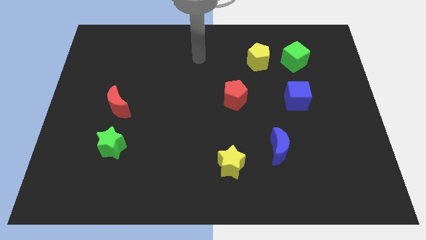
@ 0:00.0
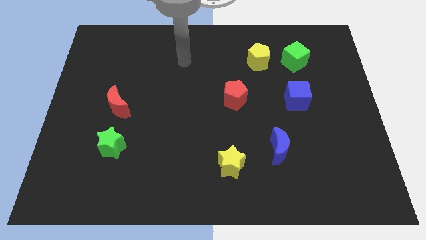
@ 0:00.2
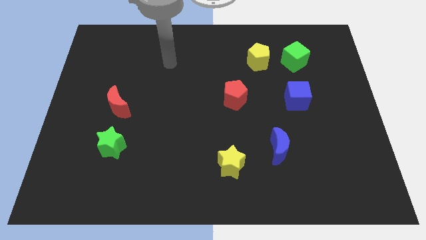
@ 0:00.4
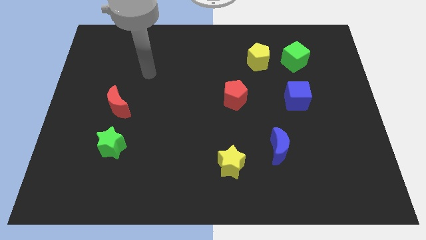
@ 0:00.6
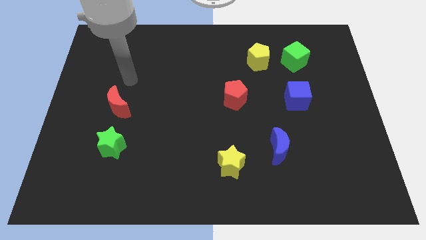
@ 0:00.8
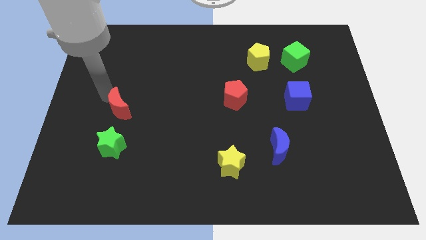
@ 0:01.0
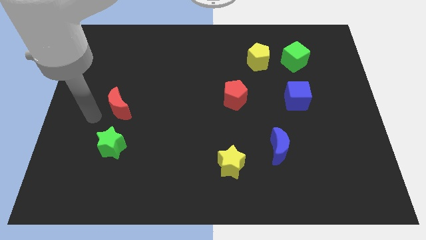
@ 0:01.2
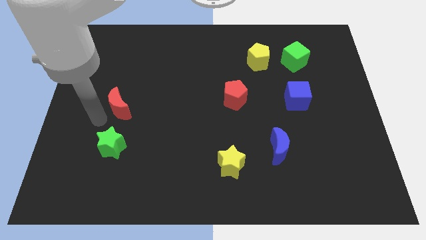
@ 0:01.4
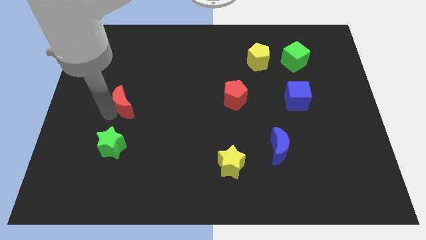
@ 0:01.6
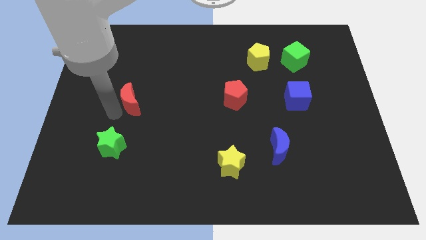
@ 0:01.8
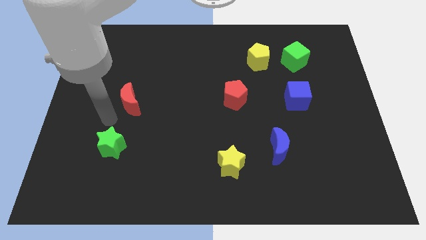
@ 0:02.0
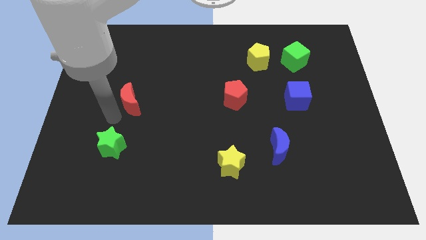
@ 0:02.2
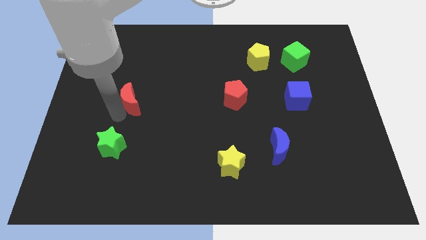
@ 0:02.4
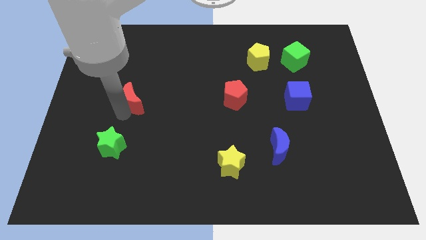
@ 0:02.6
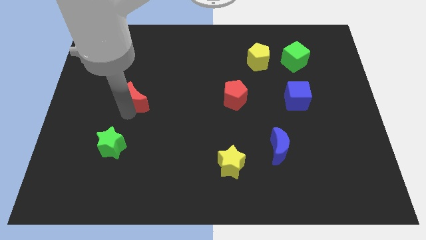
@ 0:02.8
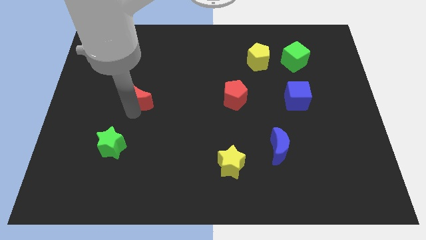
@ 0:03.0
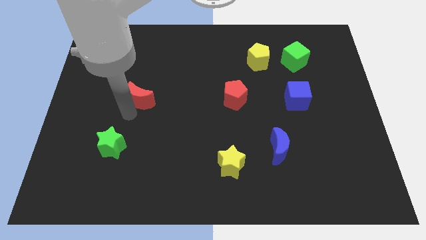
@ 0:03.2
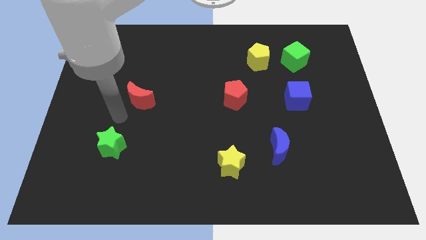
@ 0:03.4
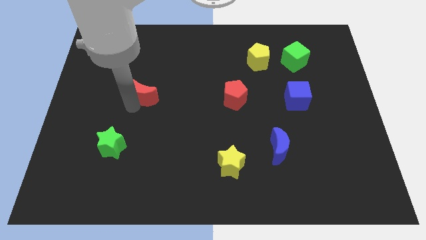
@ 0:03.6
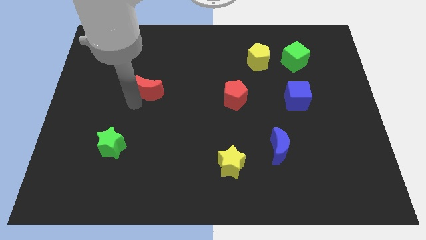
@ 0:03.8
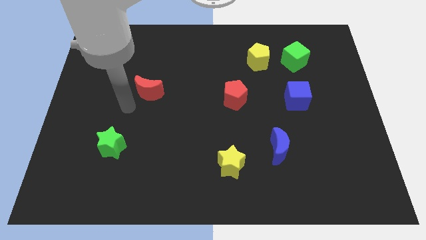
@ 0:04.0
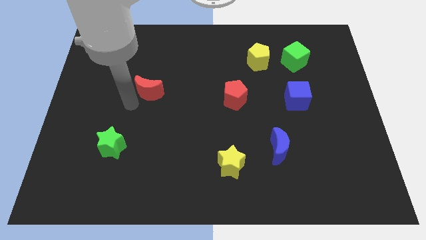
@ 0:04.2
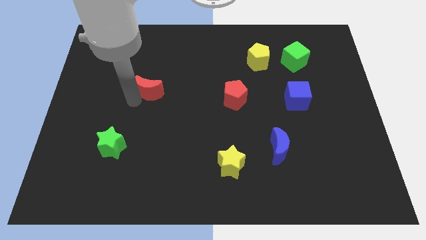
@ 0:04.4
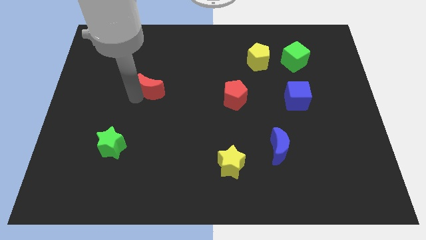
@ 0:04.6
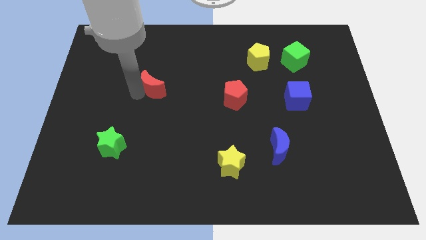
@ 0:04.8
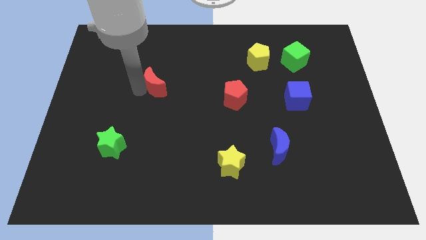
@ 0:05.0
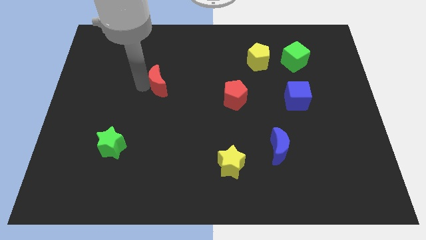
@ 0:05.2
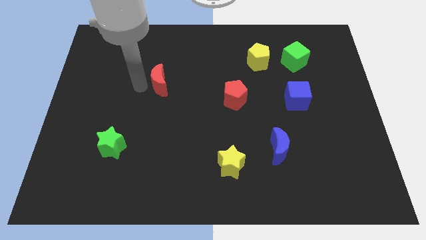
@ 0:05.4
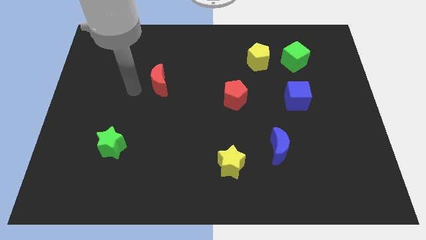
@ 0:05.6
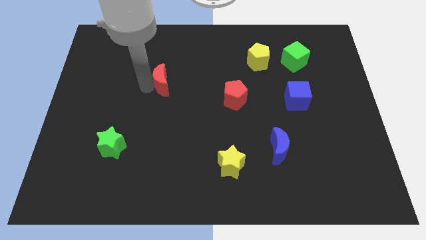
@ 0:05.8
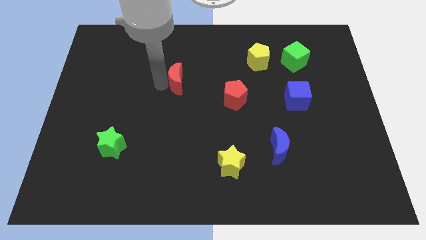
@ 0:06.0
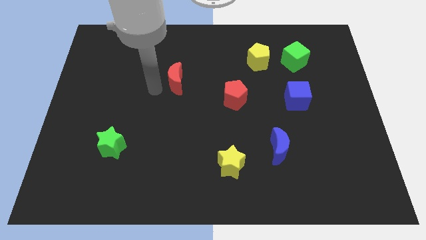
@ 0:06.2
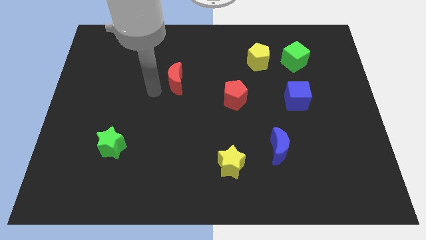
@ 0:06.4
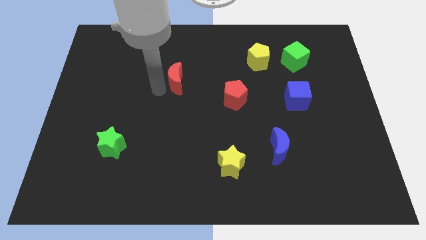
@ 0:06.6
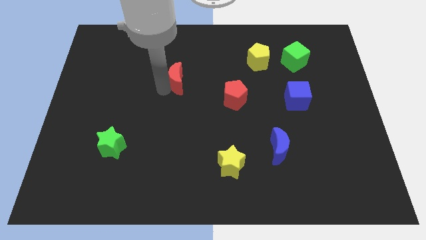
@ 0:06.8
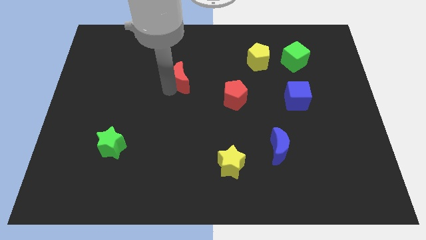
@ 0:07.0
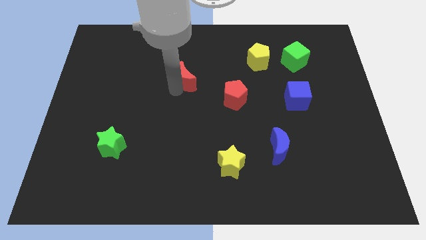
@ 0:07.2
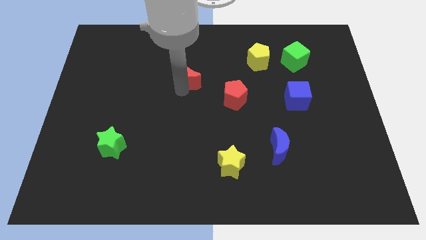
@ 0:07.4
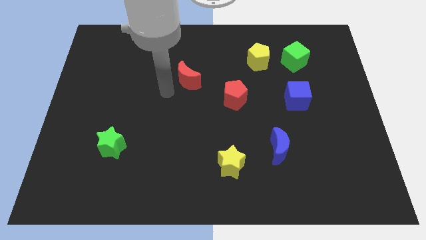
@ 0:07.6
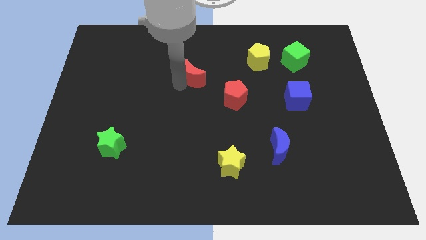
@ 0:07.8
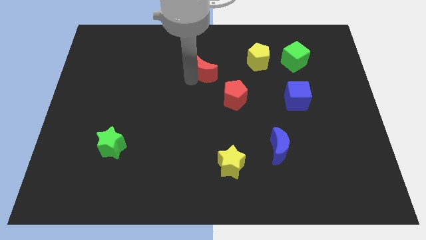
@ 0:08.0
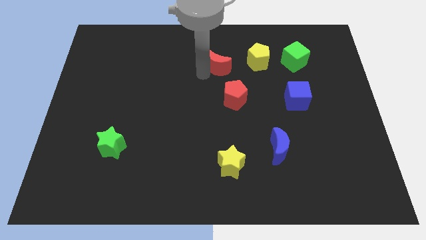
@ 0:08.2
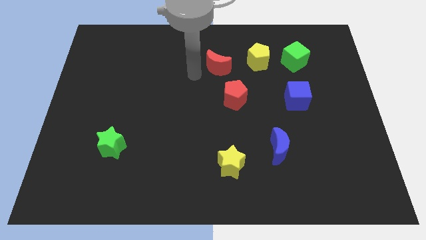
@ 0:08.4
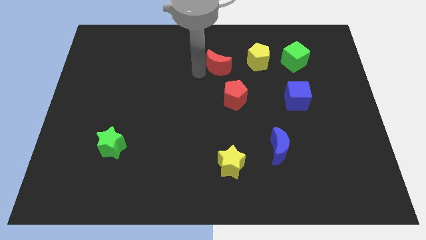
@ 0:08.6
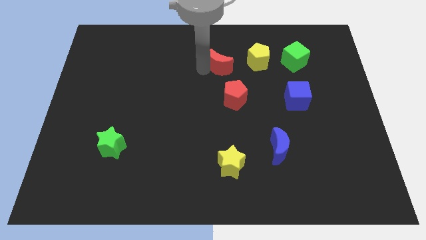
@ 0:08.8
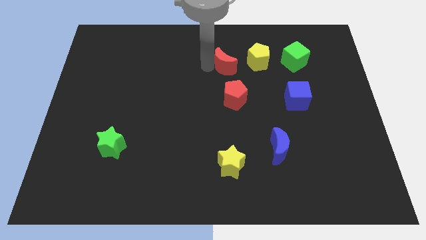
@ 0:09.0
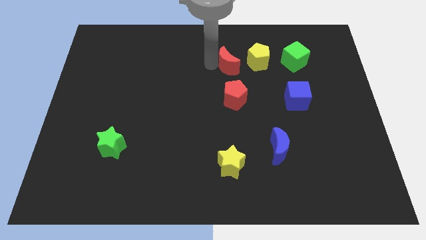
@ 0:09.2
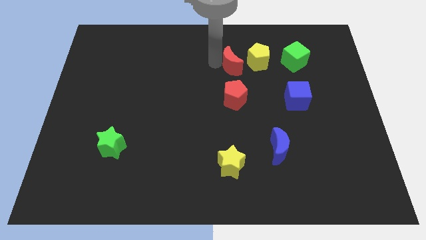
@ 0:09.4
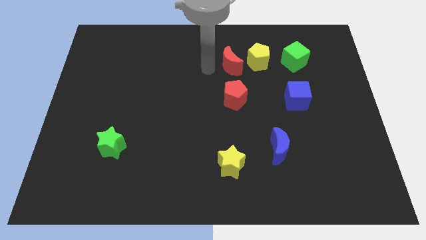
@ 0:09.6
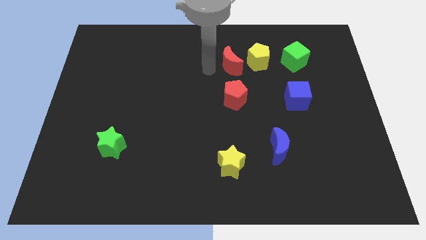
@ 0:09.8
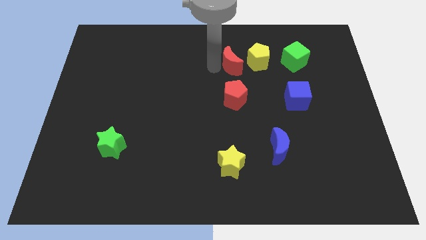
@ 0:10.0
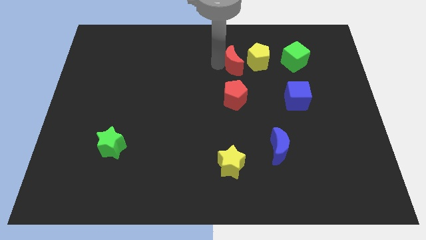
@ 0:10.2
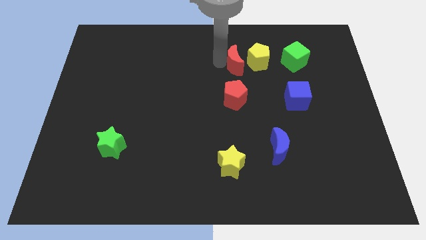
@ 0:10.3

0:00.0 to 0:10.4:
put the red moon left of the green cube

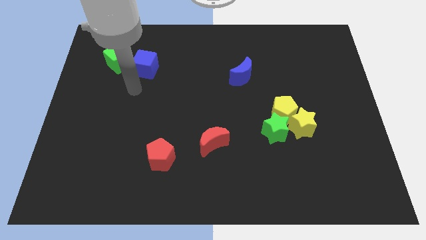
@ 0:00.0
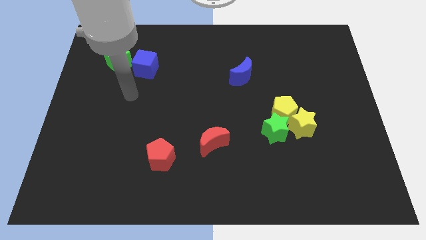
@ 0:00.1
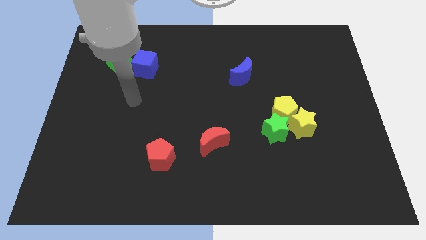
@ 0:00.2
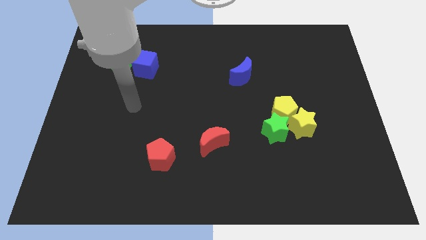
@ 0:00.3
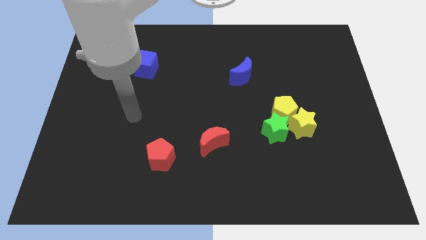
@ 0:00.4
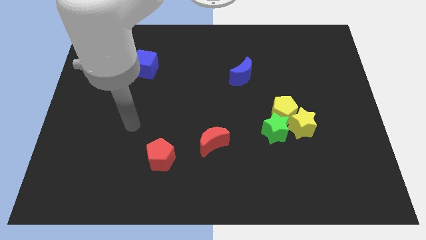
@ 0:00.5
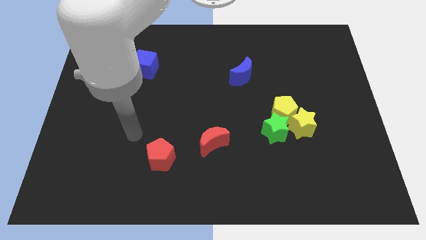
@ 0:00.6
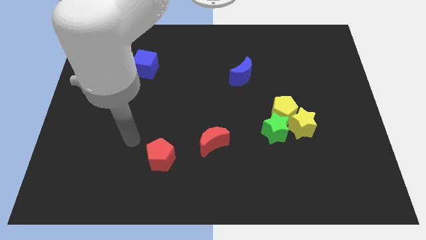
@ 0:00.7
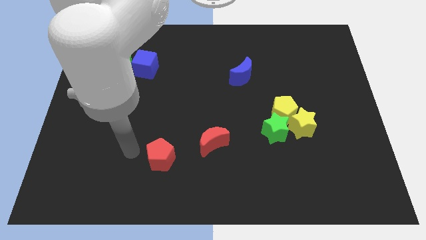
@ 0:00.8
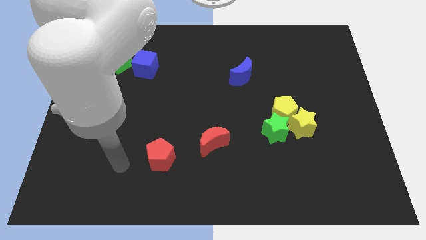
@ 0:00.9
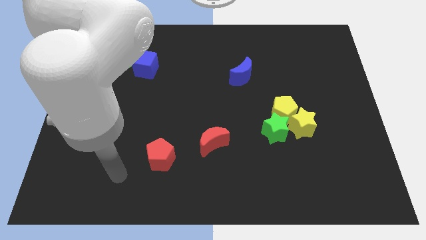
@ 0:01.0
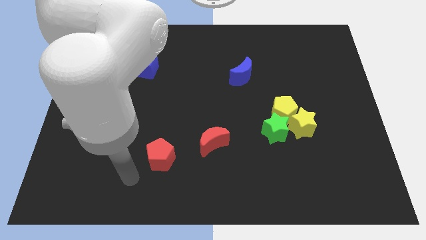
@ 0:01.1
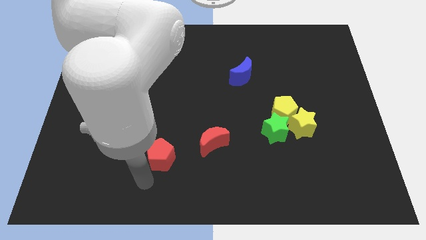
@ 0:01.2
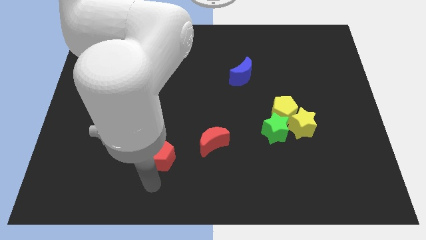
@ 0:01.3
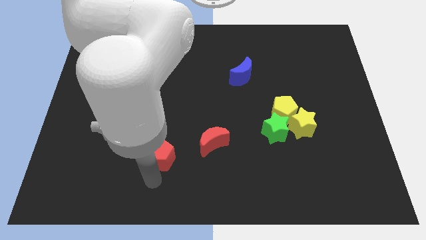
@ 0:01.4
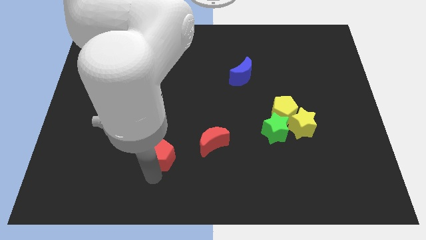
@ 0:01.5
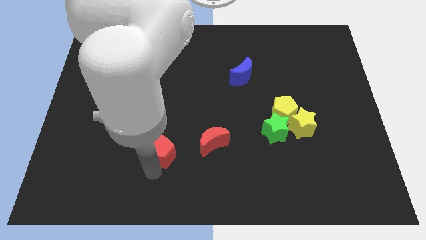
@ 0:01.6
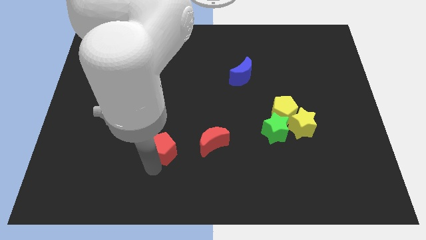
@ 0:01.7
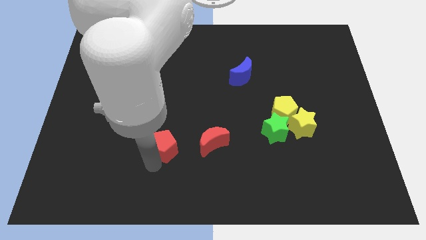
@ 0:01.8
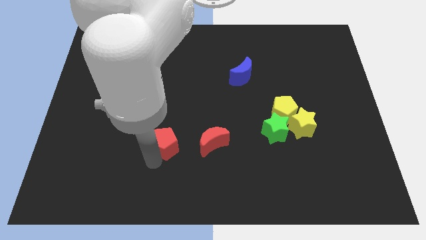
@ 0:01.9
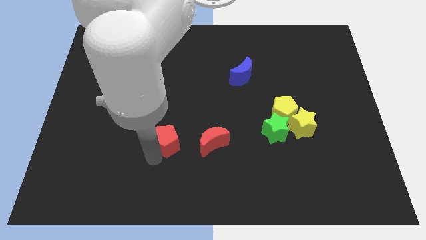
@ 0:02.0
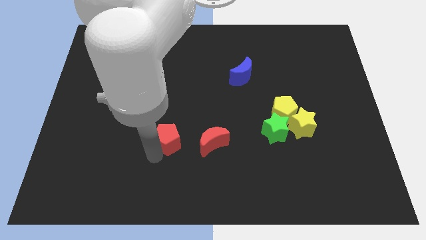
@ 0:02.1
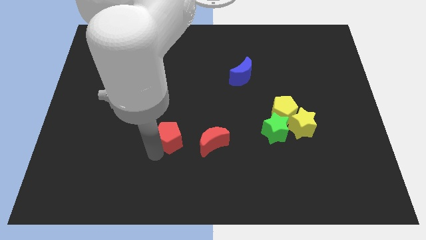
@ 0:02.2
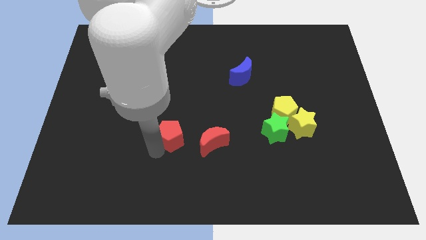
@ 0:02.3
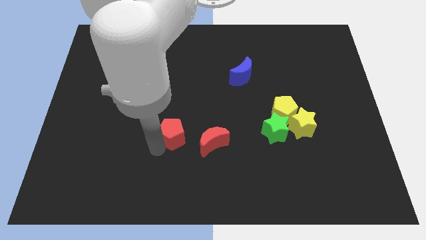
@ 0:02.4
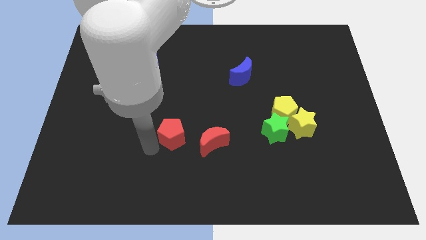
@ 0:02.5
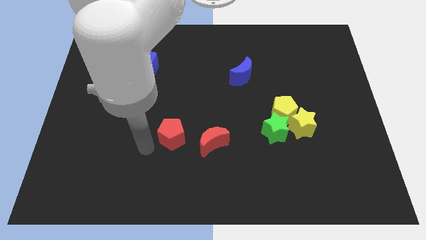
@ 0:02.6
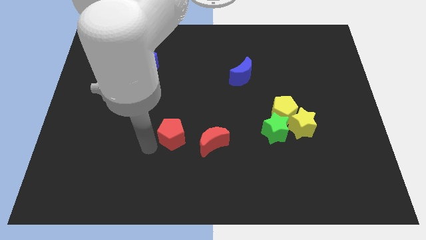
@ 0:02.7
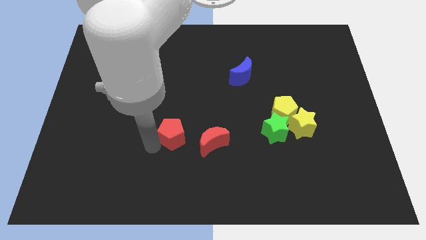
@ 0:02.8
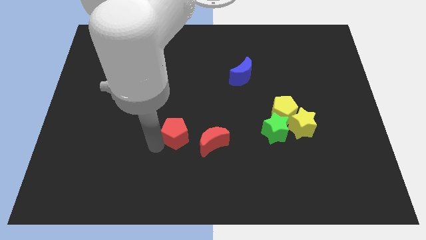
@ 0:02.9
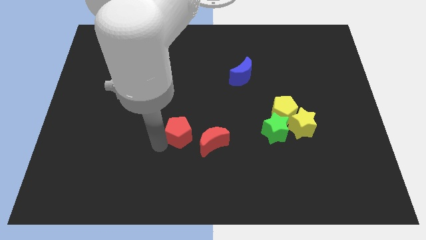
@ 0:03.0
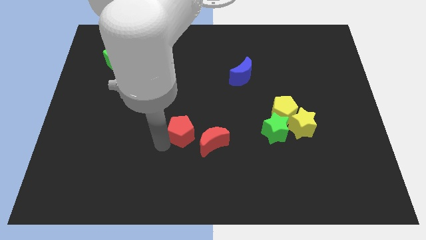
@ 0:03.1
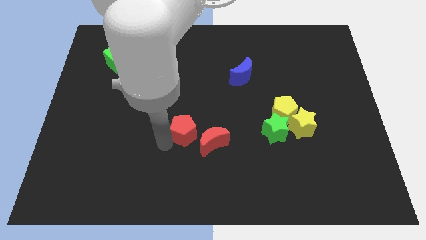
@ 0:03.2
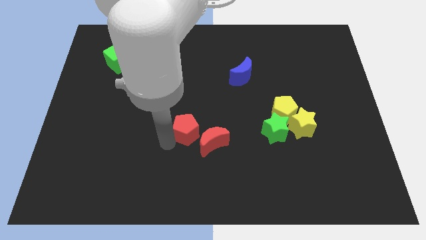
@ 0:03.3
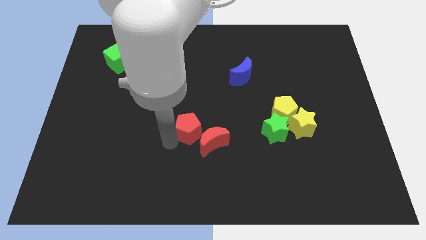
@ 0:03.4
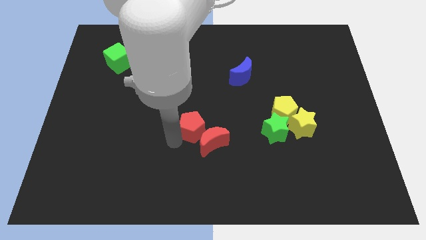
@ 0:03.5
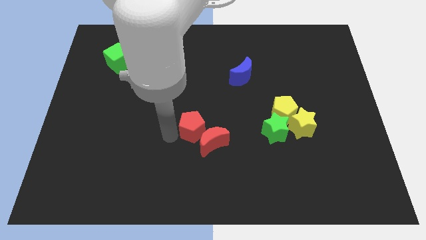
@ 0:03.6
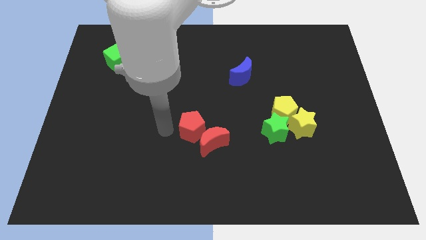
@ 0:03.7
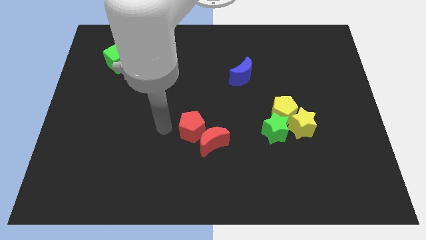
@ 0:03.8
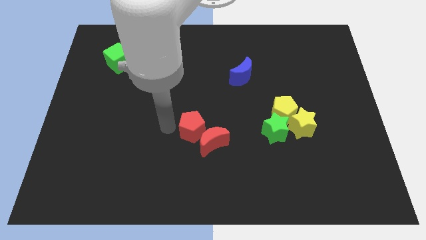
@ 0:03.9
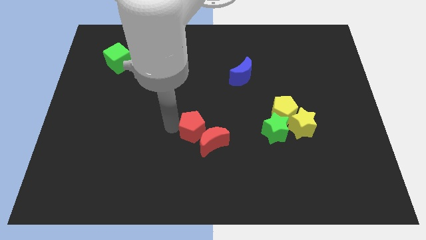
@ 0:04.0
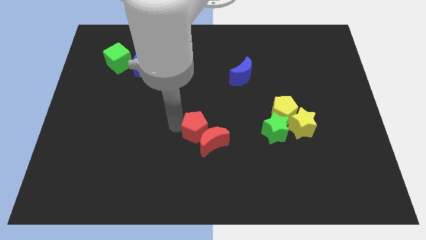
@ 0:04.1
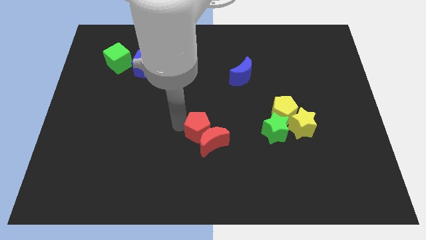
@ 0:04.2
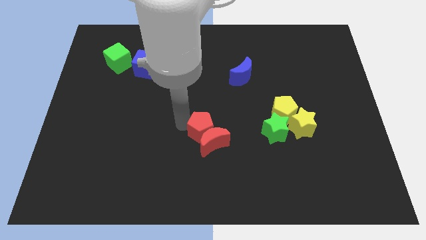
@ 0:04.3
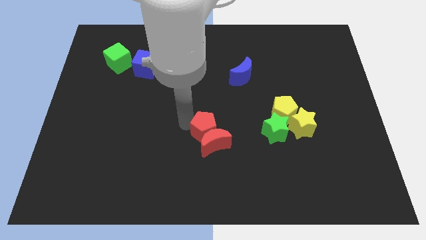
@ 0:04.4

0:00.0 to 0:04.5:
put the red pentagon just left of the green star
